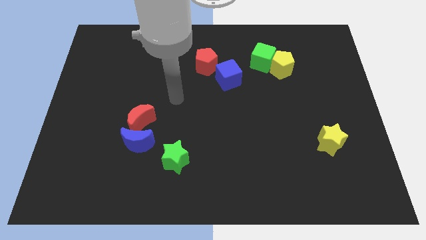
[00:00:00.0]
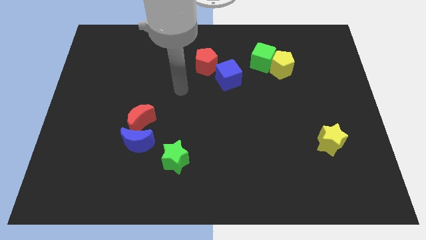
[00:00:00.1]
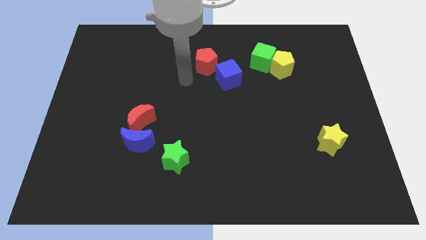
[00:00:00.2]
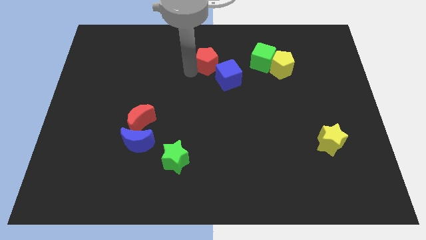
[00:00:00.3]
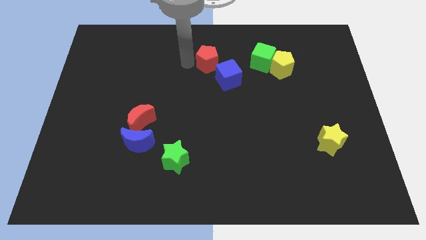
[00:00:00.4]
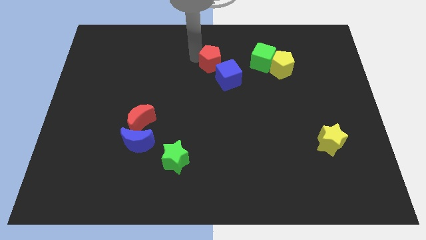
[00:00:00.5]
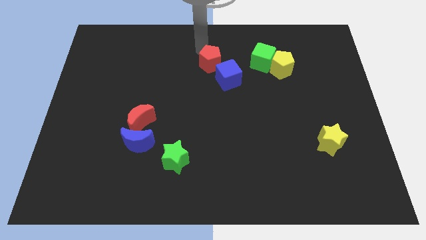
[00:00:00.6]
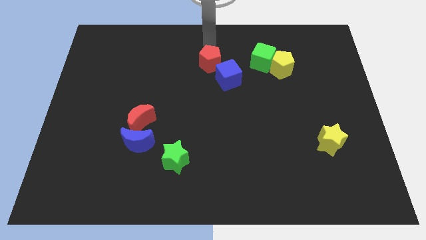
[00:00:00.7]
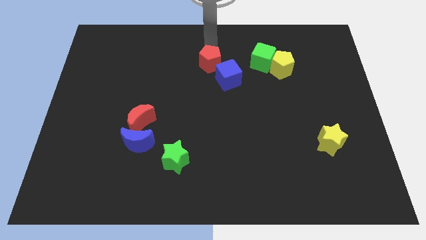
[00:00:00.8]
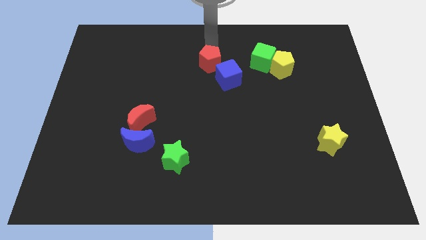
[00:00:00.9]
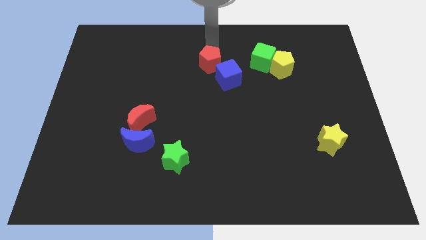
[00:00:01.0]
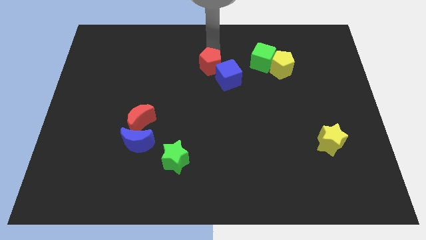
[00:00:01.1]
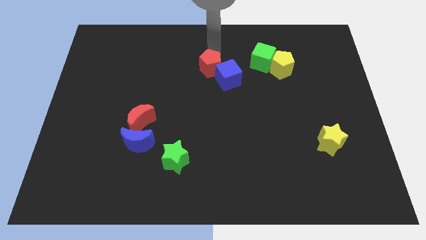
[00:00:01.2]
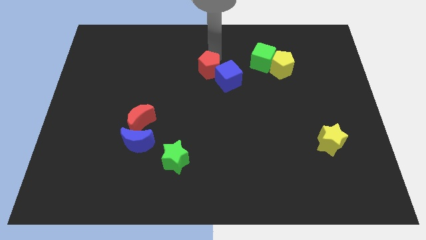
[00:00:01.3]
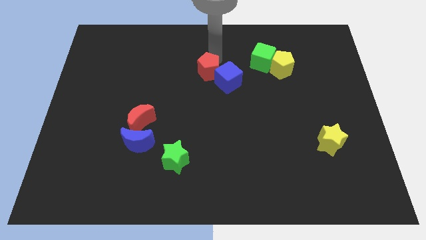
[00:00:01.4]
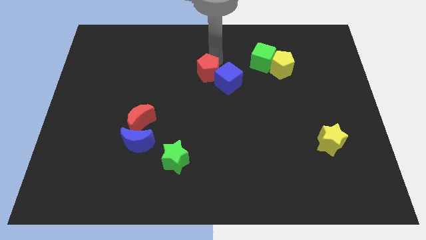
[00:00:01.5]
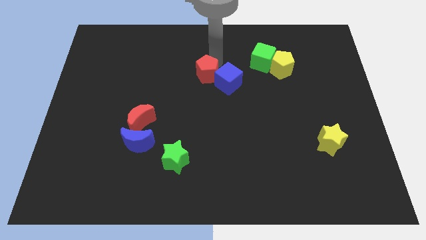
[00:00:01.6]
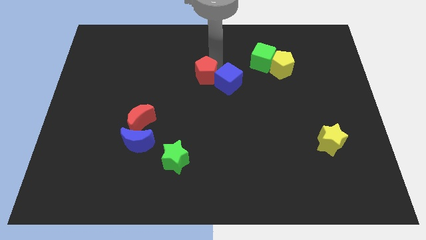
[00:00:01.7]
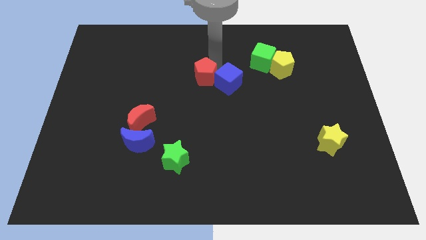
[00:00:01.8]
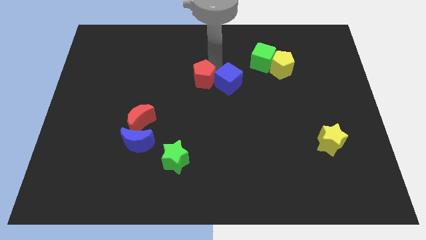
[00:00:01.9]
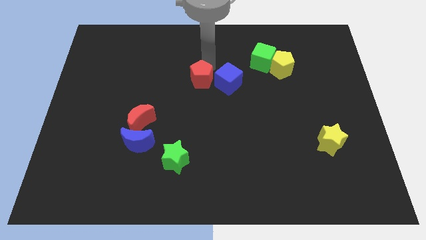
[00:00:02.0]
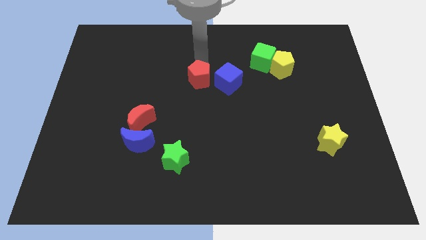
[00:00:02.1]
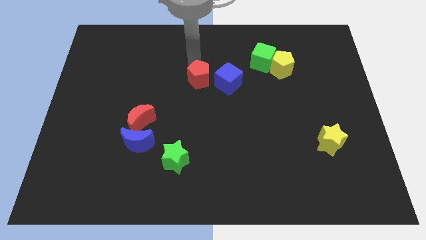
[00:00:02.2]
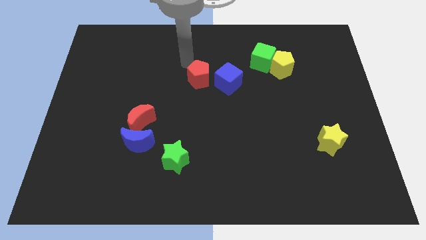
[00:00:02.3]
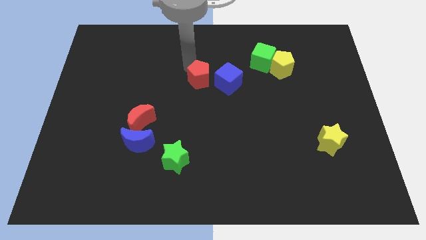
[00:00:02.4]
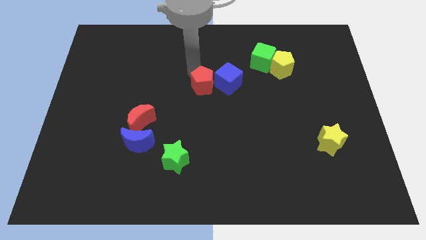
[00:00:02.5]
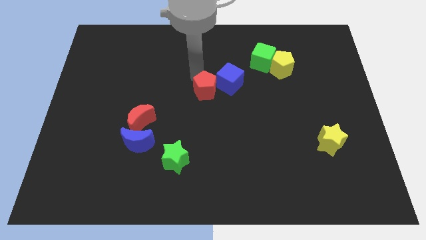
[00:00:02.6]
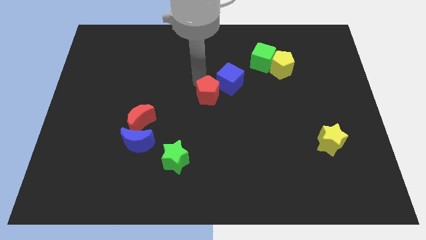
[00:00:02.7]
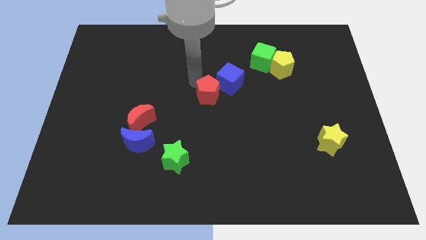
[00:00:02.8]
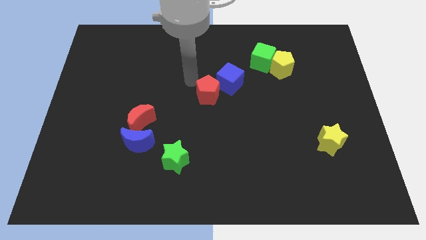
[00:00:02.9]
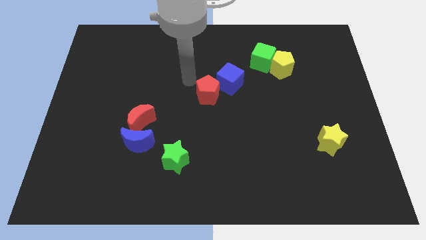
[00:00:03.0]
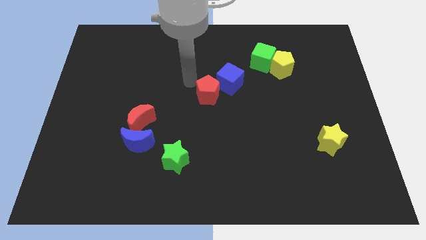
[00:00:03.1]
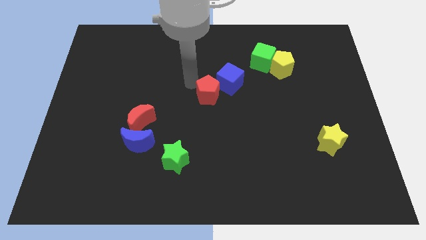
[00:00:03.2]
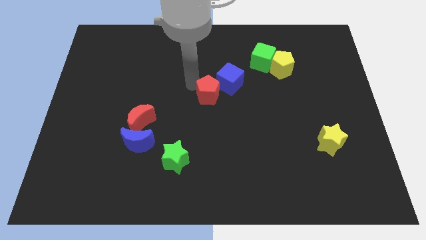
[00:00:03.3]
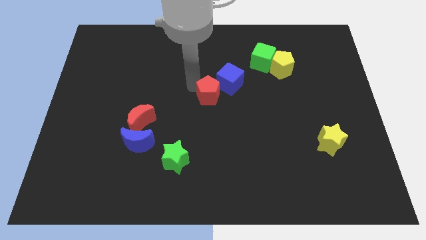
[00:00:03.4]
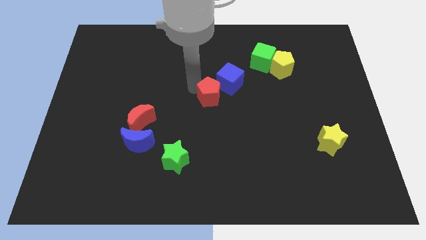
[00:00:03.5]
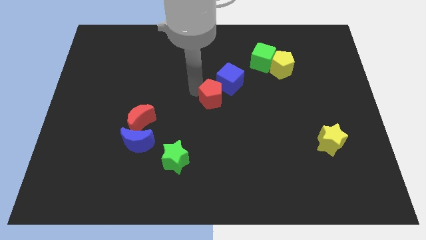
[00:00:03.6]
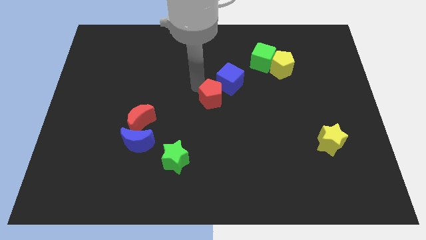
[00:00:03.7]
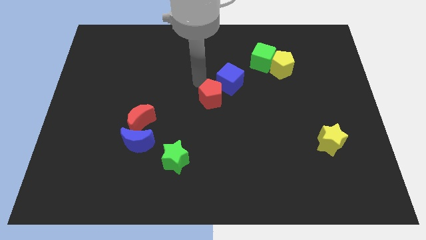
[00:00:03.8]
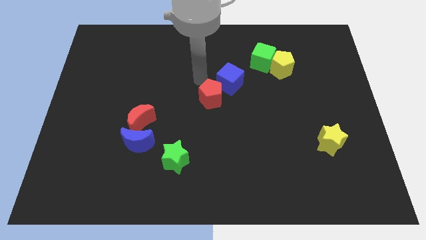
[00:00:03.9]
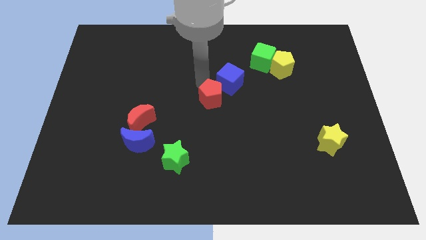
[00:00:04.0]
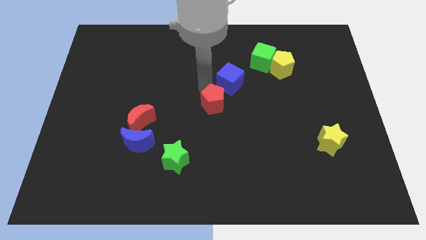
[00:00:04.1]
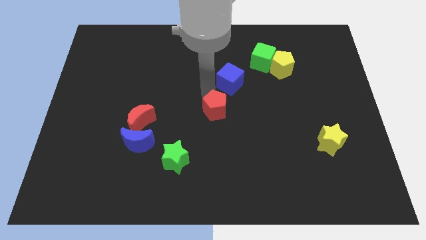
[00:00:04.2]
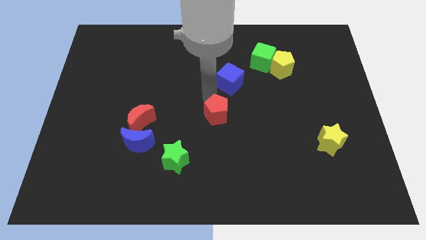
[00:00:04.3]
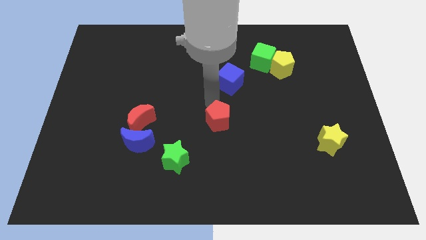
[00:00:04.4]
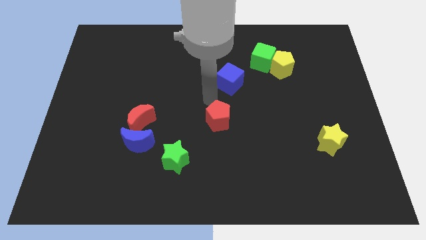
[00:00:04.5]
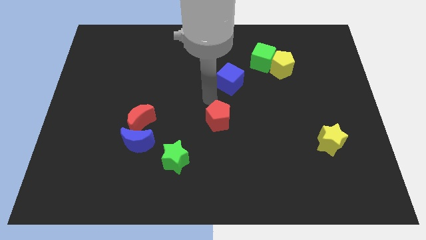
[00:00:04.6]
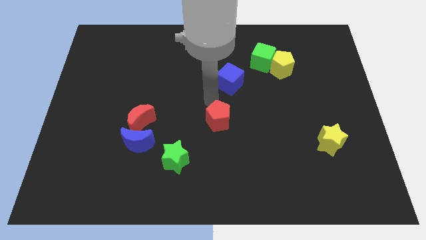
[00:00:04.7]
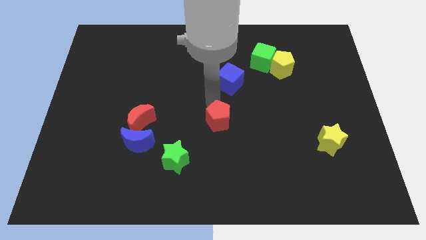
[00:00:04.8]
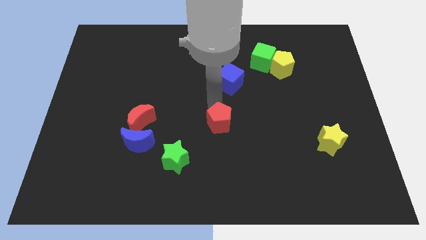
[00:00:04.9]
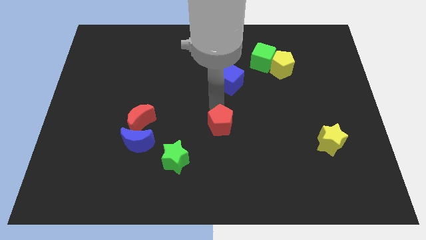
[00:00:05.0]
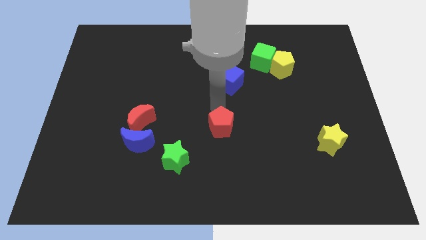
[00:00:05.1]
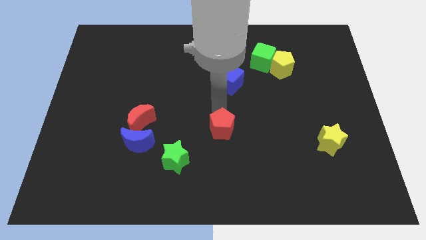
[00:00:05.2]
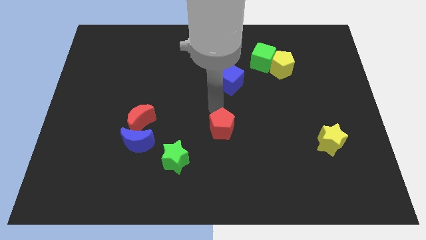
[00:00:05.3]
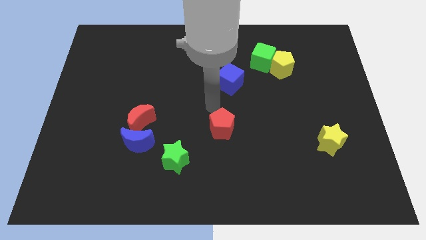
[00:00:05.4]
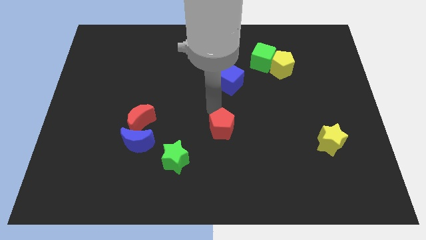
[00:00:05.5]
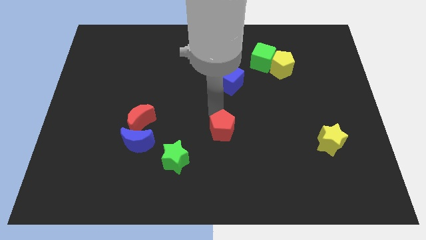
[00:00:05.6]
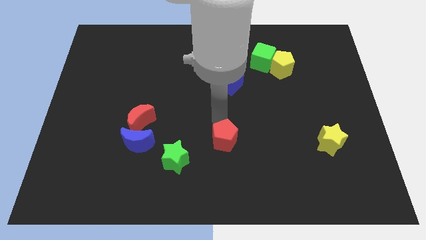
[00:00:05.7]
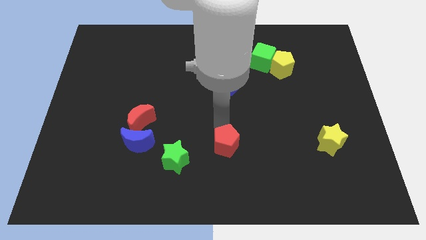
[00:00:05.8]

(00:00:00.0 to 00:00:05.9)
push the red pentagon right of the green star
